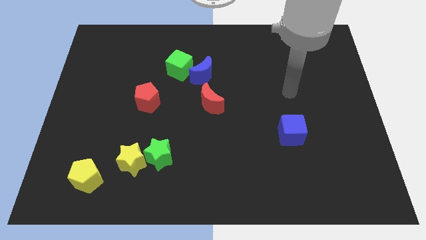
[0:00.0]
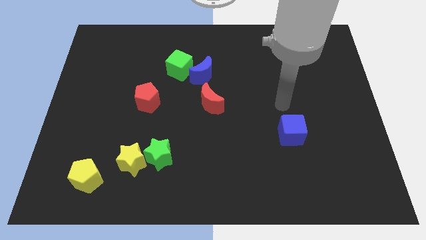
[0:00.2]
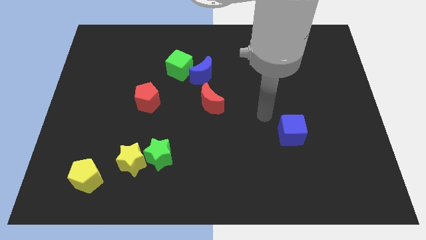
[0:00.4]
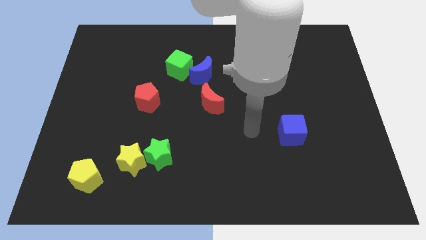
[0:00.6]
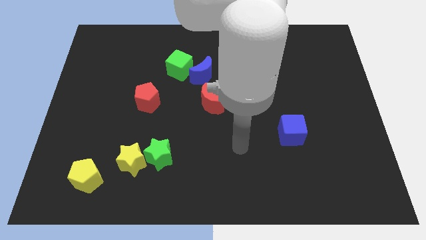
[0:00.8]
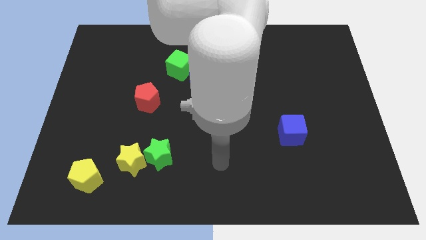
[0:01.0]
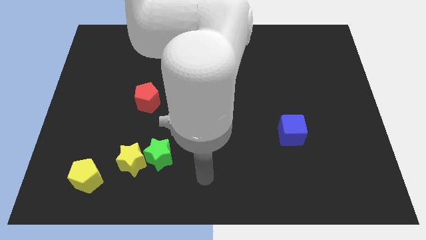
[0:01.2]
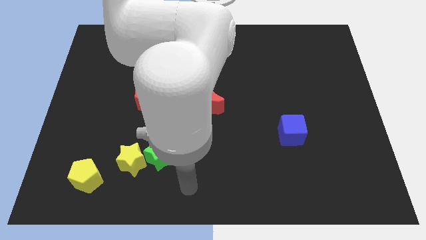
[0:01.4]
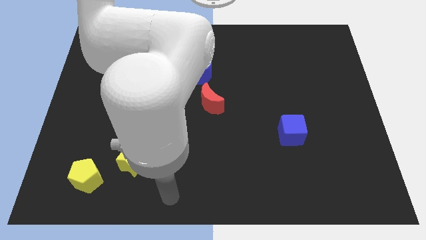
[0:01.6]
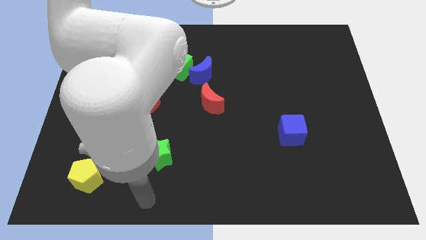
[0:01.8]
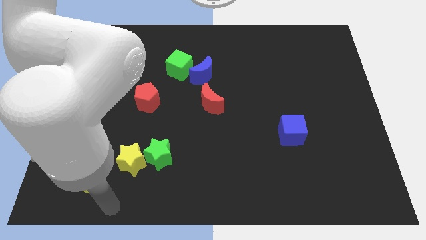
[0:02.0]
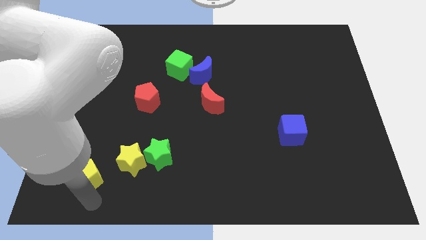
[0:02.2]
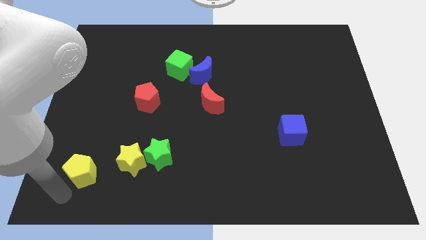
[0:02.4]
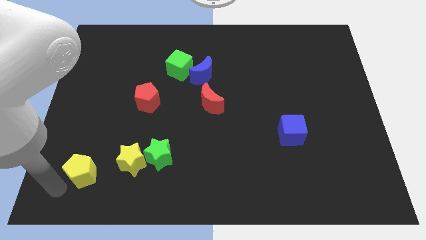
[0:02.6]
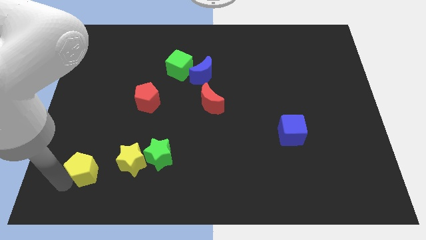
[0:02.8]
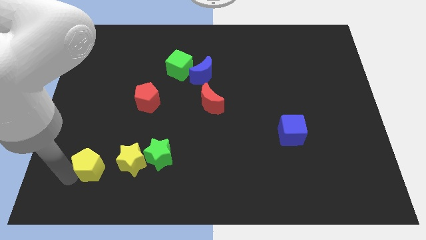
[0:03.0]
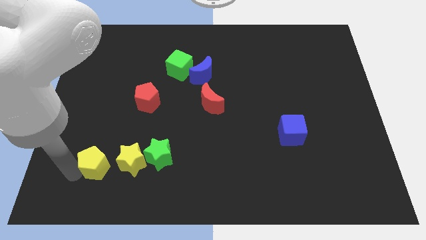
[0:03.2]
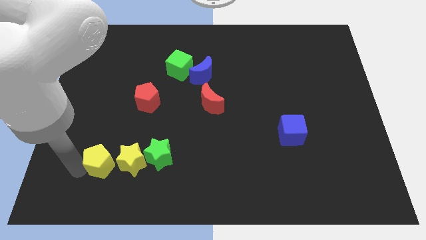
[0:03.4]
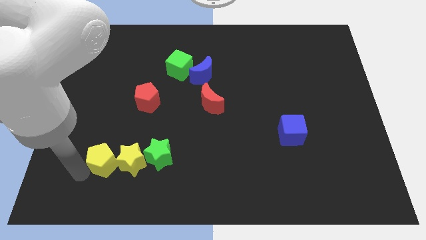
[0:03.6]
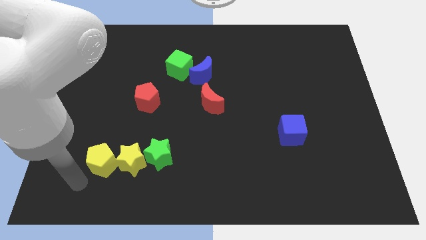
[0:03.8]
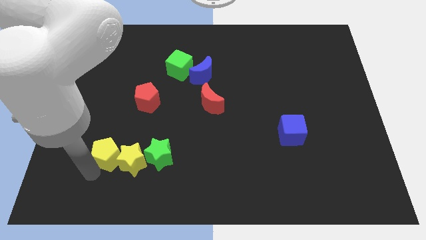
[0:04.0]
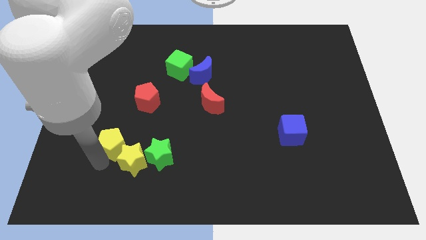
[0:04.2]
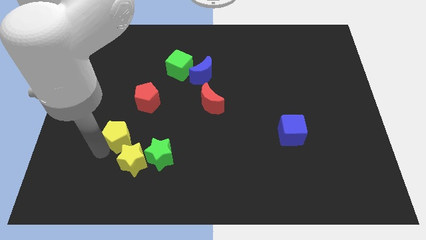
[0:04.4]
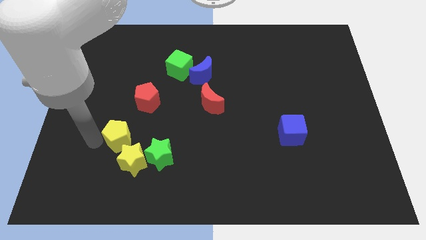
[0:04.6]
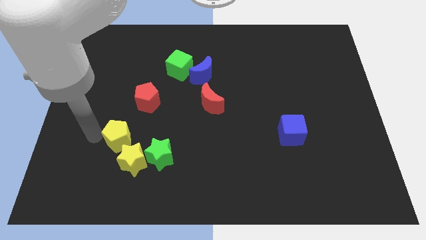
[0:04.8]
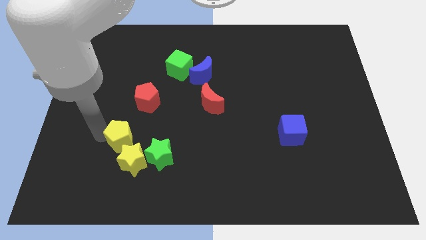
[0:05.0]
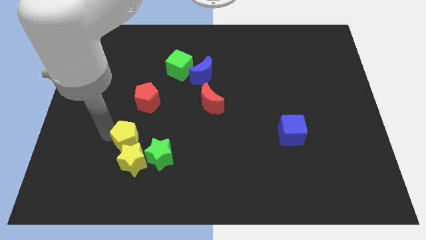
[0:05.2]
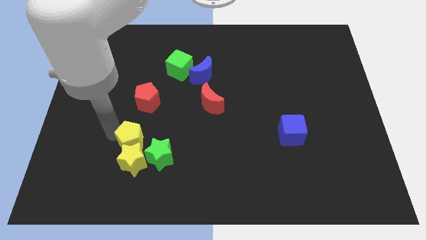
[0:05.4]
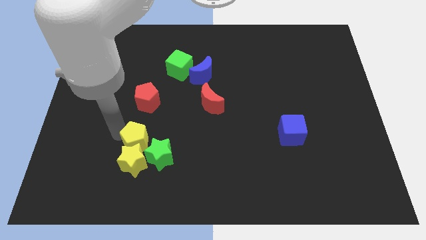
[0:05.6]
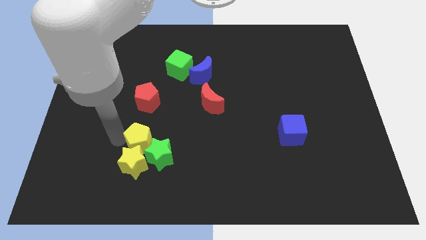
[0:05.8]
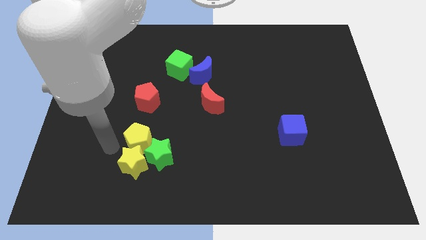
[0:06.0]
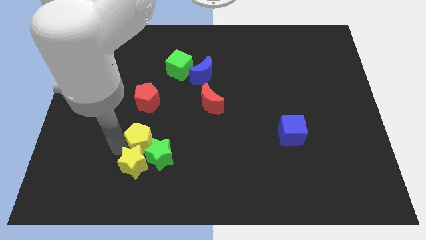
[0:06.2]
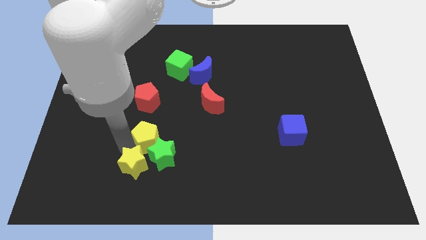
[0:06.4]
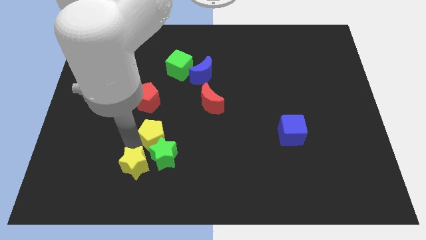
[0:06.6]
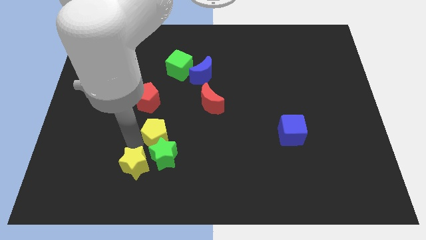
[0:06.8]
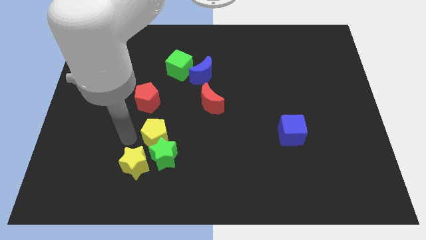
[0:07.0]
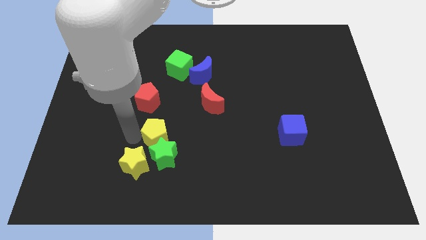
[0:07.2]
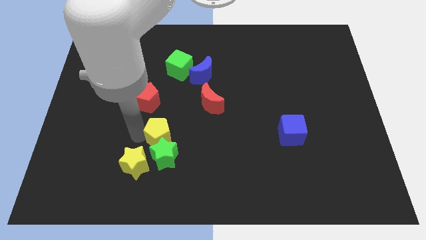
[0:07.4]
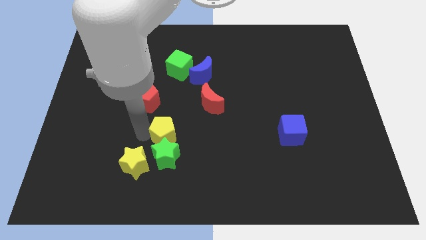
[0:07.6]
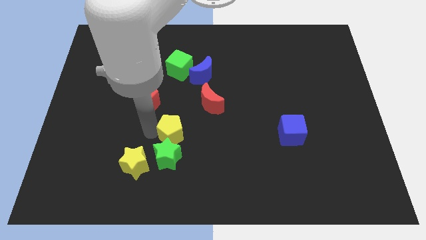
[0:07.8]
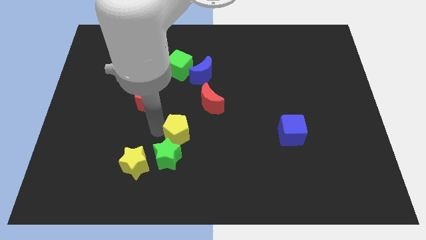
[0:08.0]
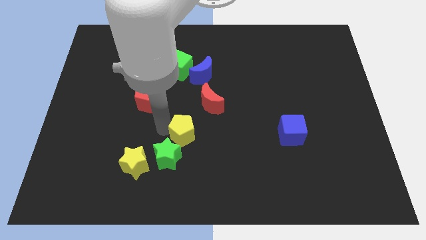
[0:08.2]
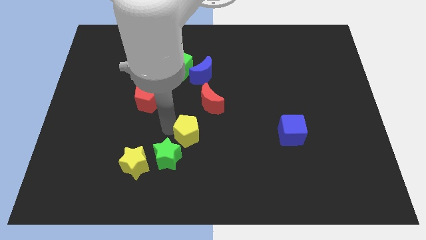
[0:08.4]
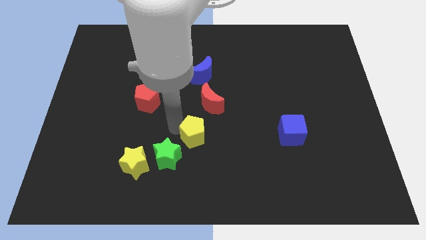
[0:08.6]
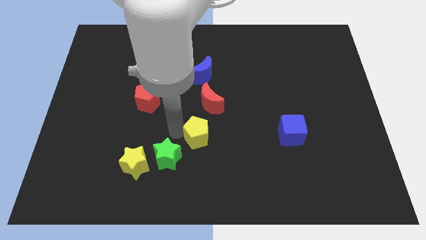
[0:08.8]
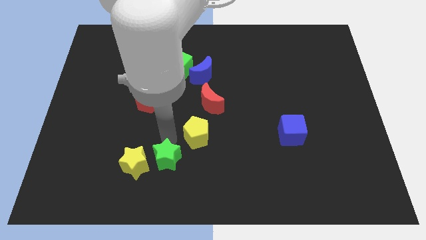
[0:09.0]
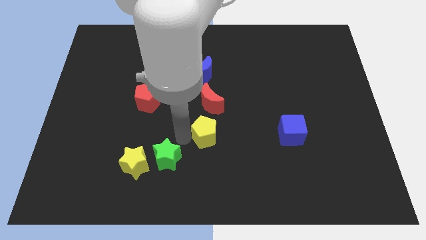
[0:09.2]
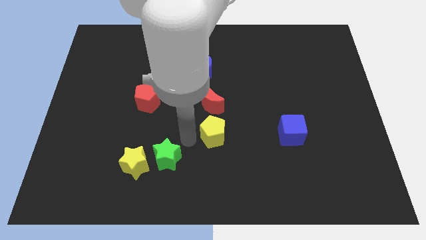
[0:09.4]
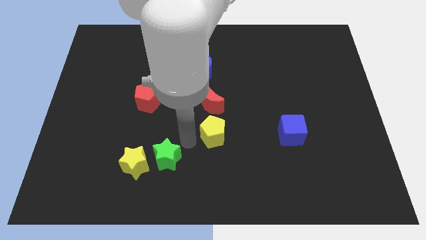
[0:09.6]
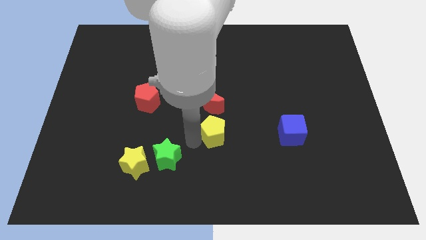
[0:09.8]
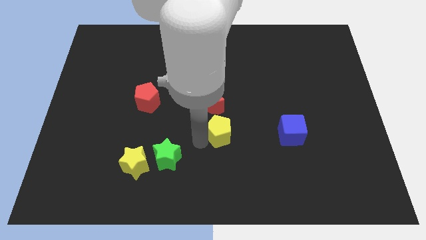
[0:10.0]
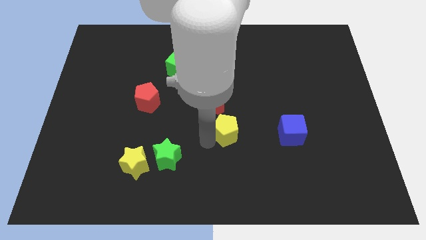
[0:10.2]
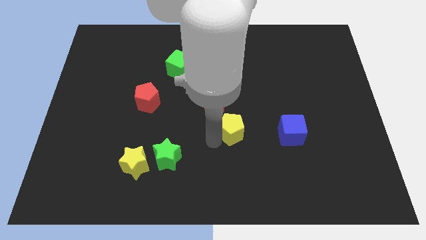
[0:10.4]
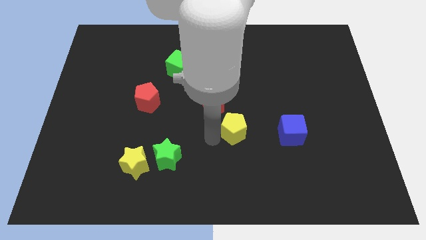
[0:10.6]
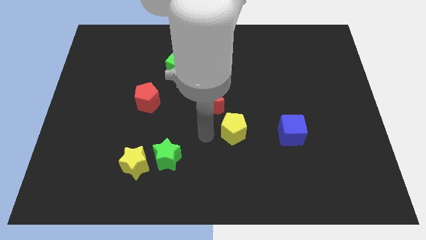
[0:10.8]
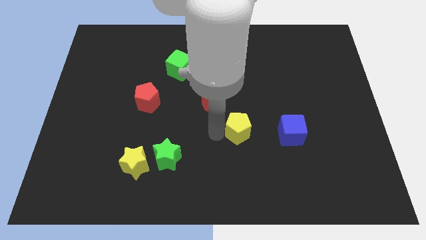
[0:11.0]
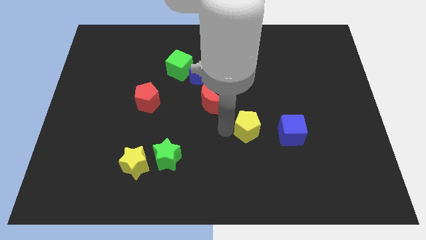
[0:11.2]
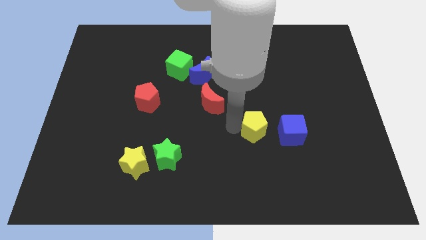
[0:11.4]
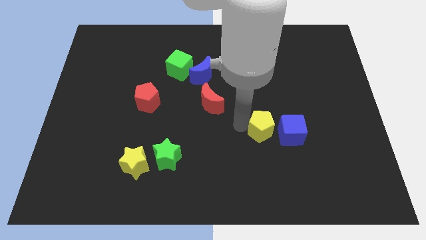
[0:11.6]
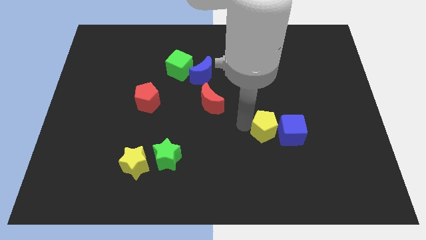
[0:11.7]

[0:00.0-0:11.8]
put the yellow pentagon next to the blue cube

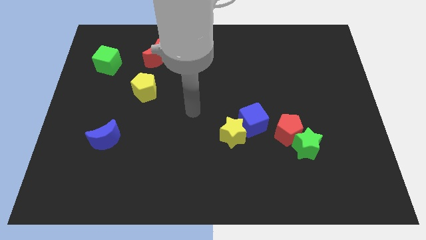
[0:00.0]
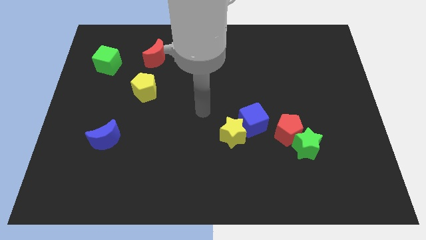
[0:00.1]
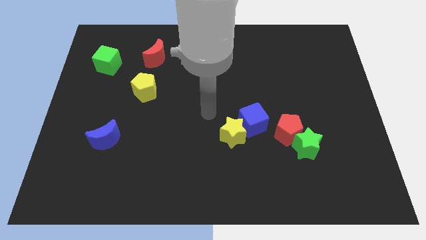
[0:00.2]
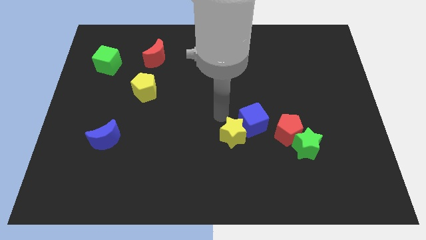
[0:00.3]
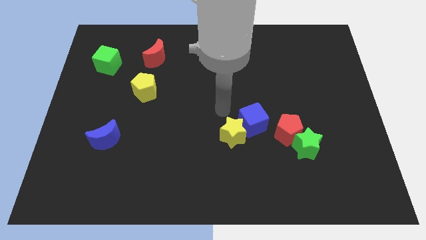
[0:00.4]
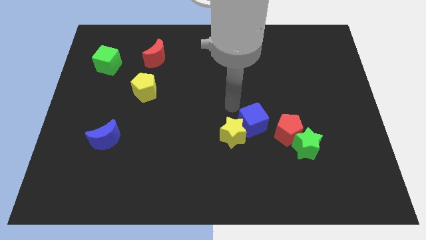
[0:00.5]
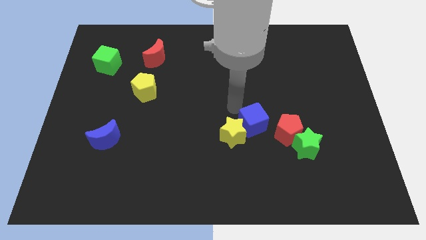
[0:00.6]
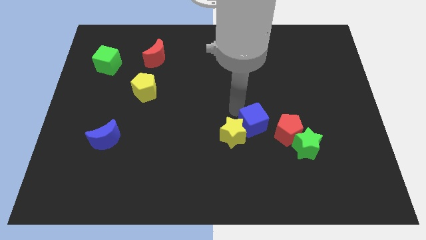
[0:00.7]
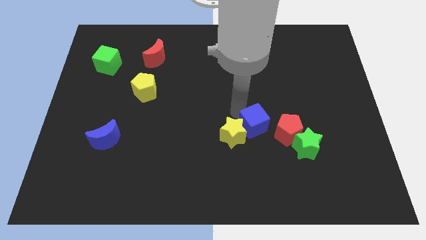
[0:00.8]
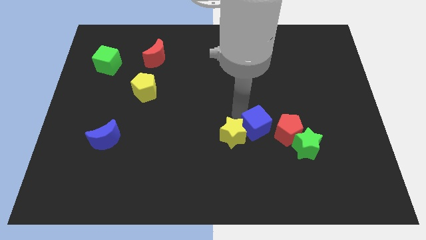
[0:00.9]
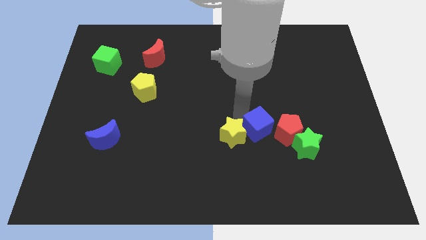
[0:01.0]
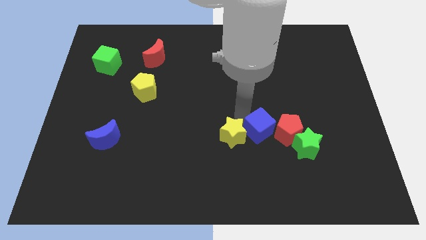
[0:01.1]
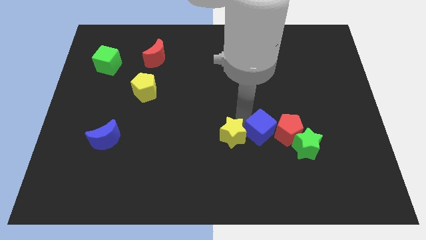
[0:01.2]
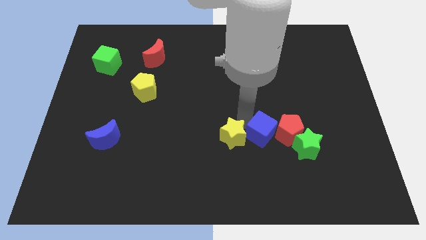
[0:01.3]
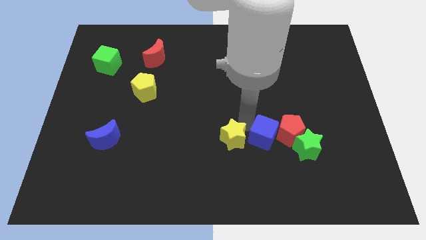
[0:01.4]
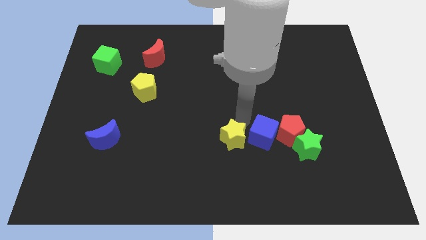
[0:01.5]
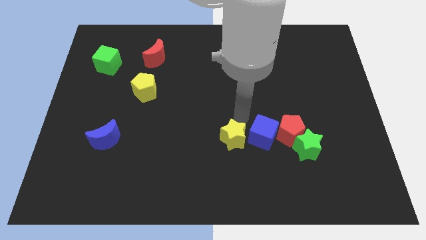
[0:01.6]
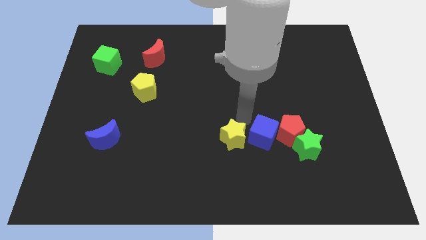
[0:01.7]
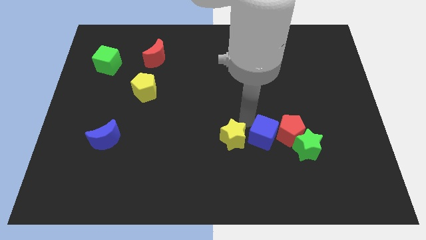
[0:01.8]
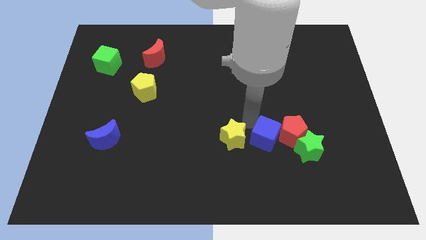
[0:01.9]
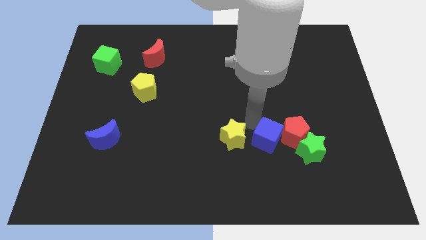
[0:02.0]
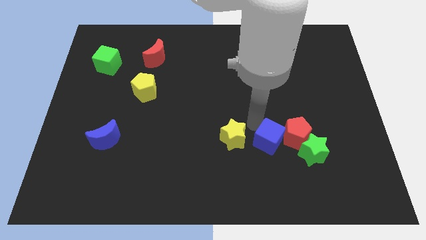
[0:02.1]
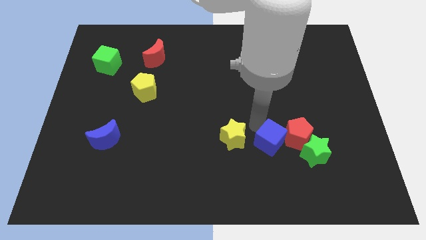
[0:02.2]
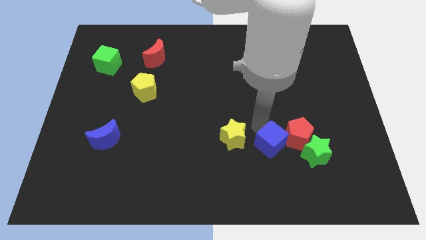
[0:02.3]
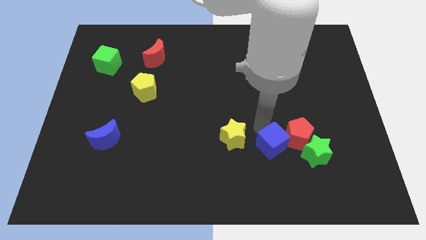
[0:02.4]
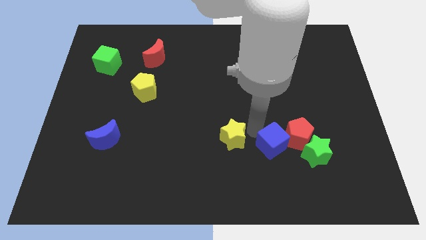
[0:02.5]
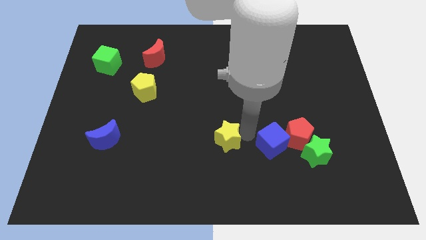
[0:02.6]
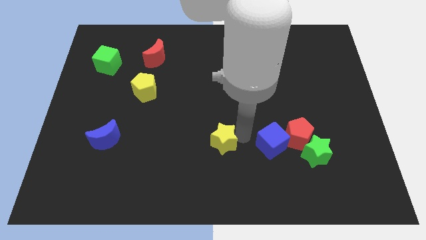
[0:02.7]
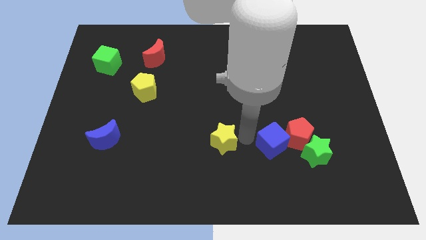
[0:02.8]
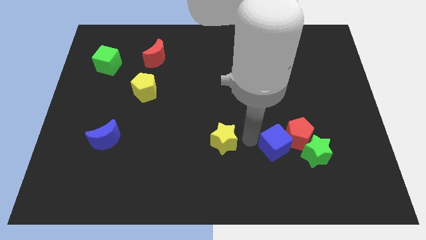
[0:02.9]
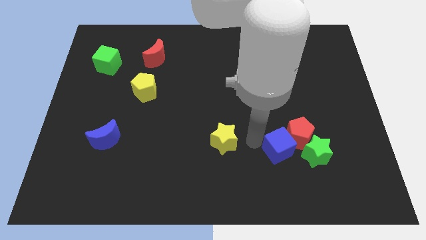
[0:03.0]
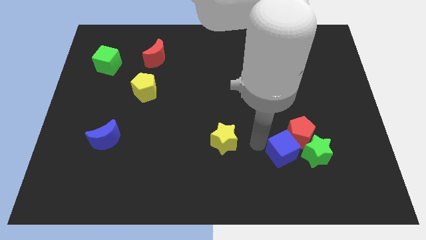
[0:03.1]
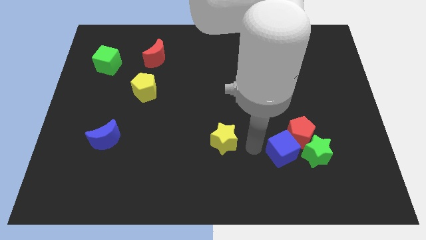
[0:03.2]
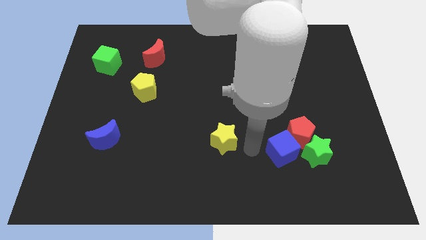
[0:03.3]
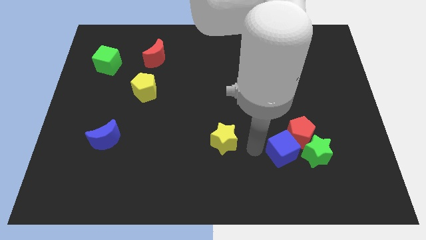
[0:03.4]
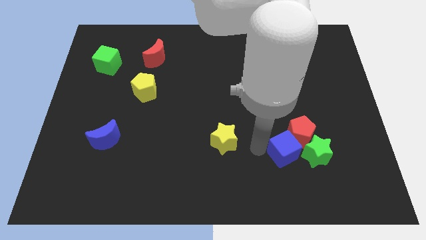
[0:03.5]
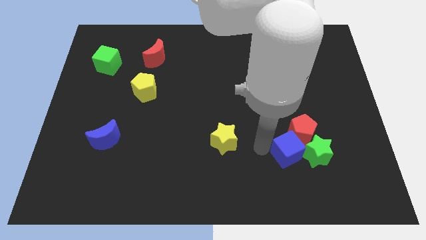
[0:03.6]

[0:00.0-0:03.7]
put the blue cube next to the green star
